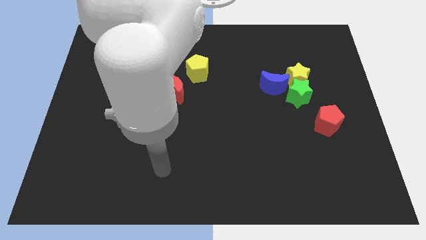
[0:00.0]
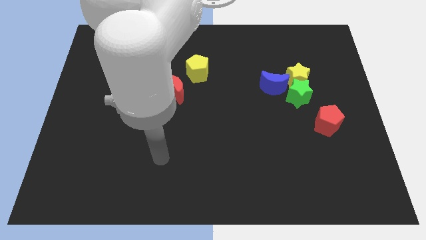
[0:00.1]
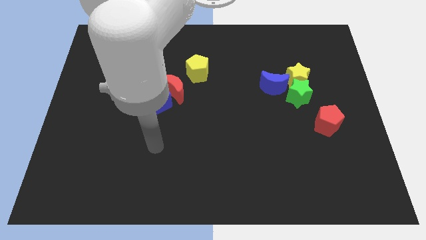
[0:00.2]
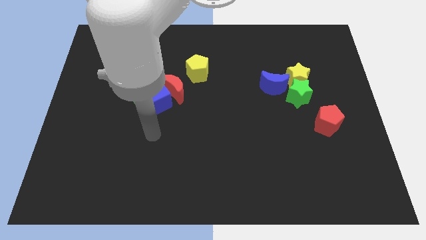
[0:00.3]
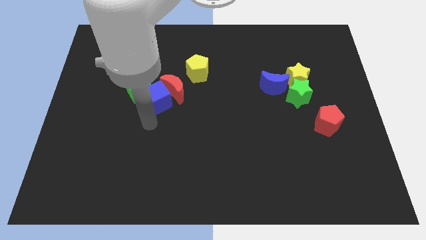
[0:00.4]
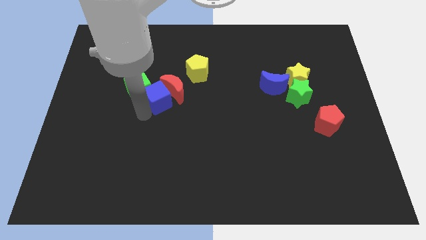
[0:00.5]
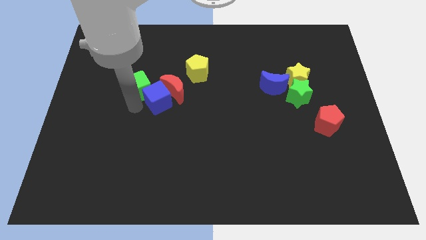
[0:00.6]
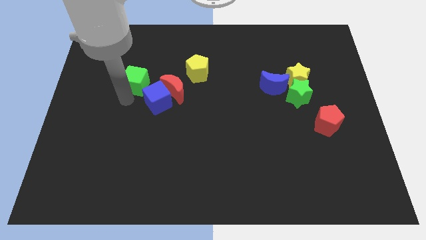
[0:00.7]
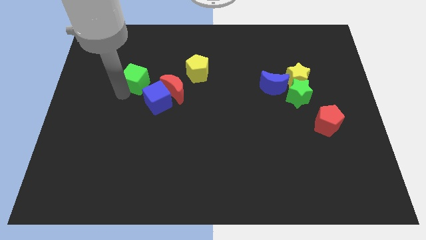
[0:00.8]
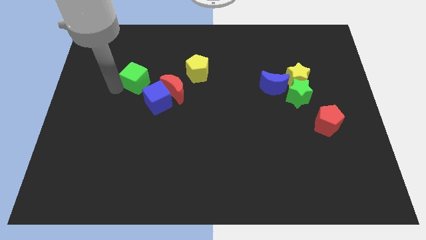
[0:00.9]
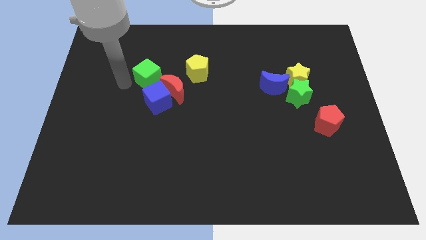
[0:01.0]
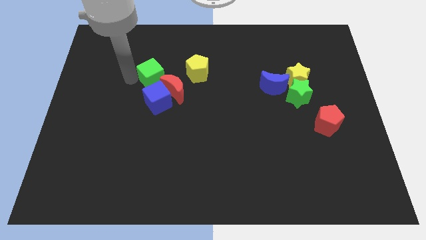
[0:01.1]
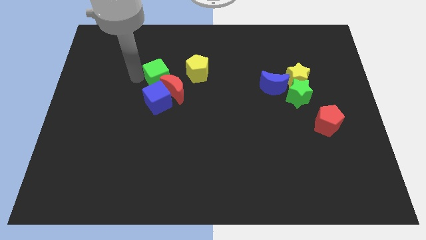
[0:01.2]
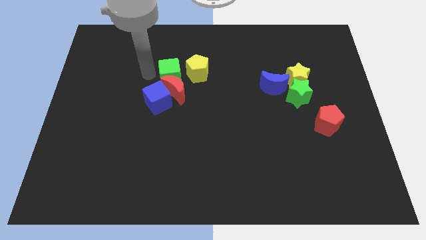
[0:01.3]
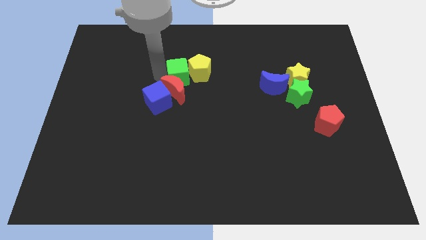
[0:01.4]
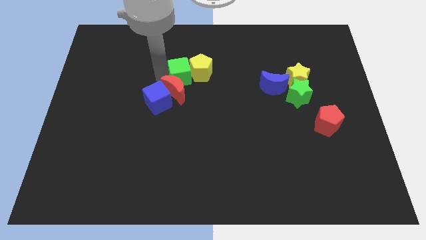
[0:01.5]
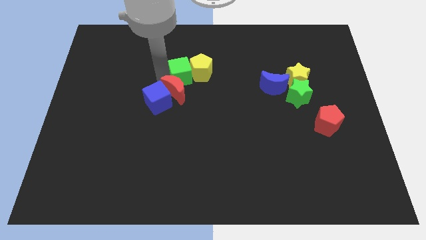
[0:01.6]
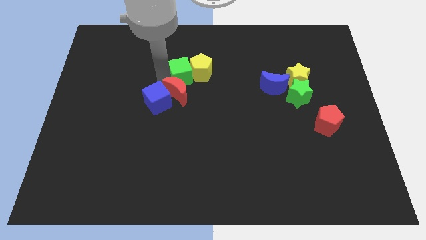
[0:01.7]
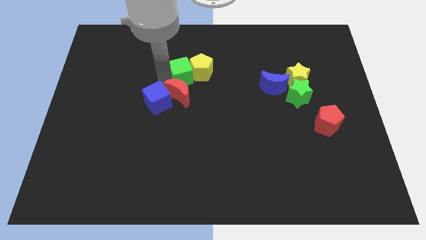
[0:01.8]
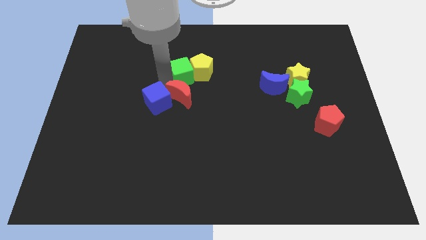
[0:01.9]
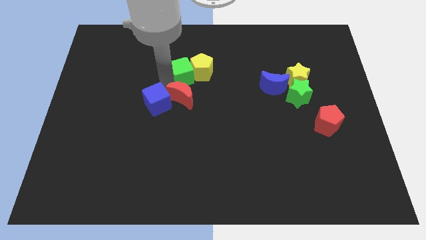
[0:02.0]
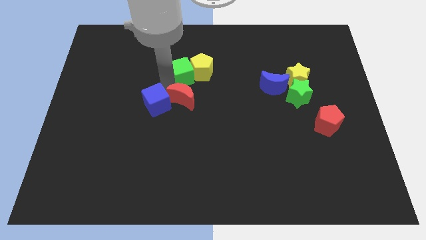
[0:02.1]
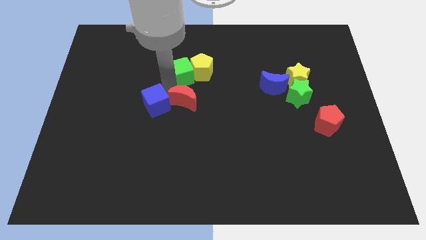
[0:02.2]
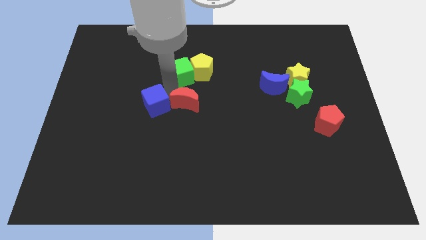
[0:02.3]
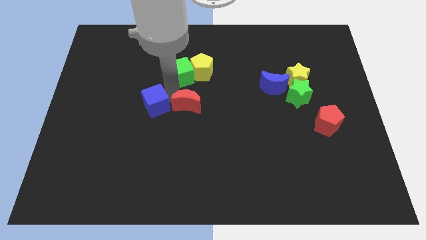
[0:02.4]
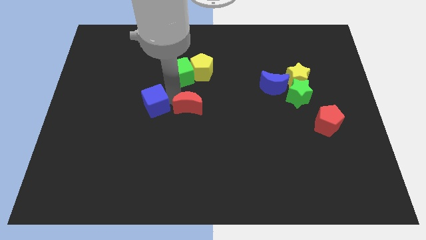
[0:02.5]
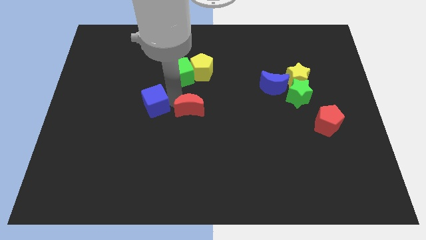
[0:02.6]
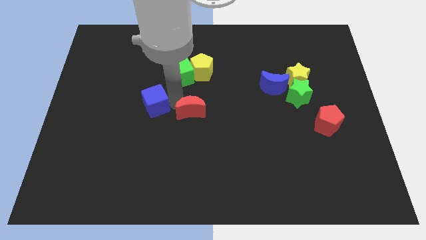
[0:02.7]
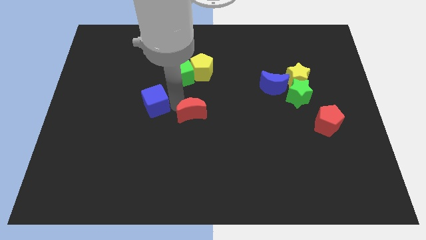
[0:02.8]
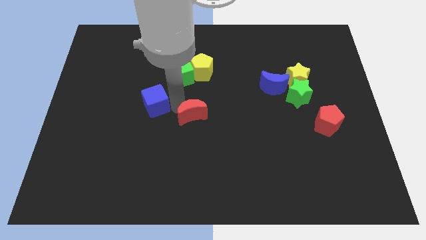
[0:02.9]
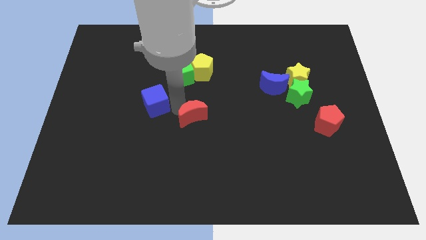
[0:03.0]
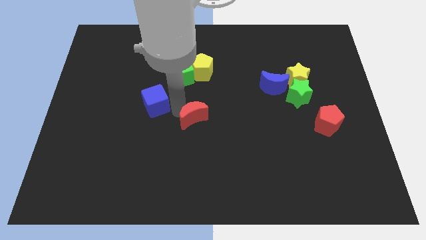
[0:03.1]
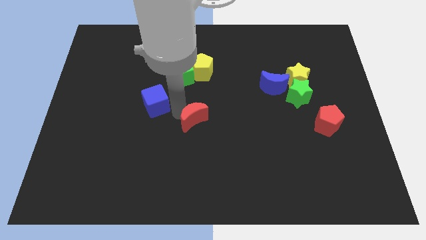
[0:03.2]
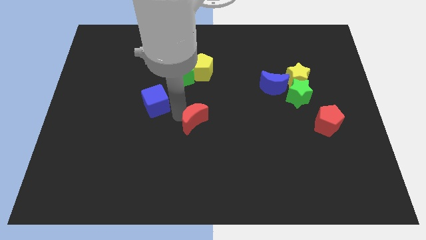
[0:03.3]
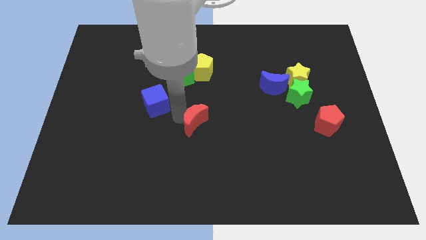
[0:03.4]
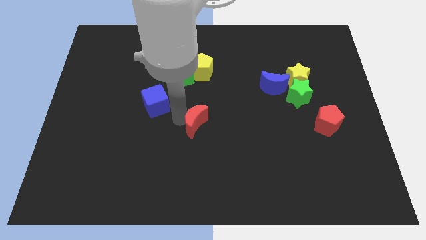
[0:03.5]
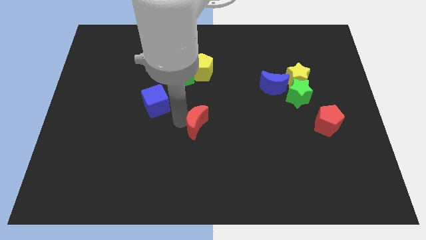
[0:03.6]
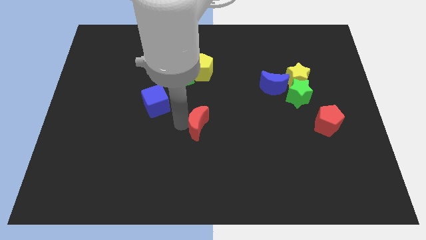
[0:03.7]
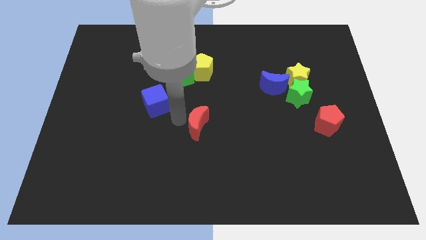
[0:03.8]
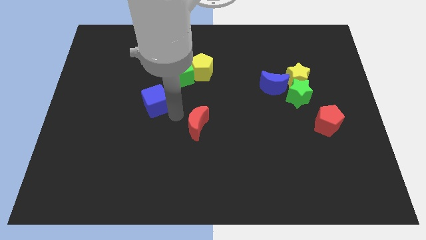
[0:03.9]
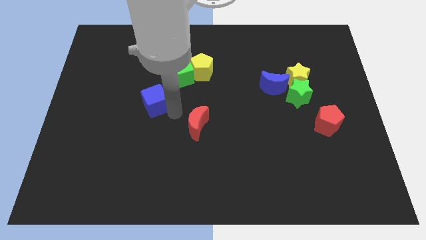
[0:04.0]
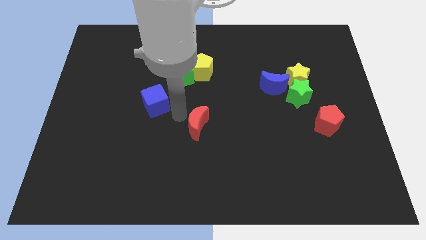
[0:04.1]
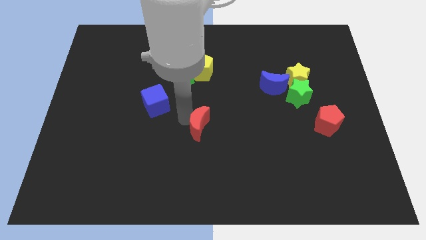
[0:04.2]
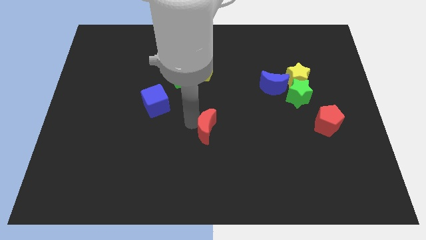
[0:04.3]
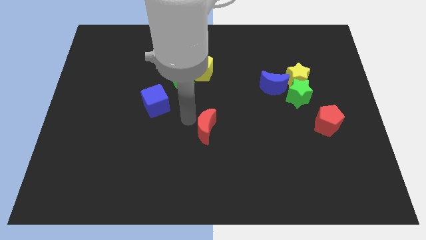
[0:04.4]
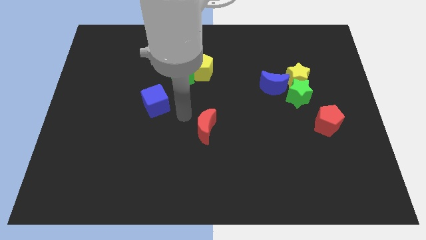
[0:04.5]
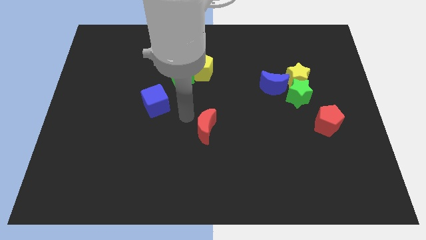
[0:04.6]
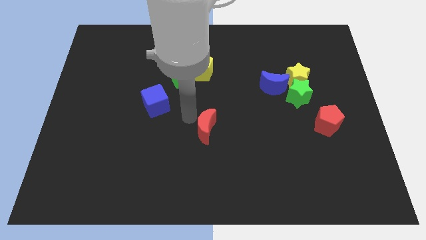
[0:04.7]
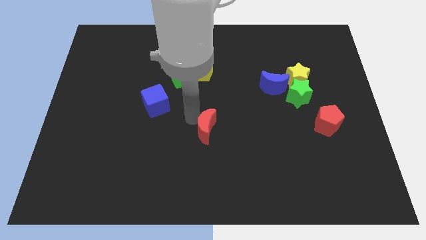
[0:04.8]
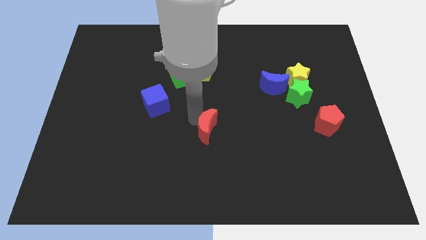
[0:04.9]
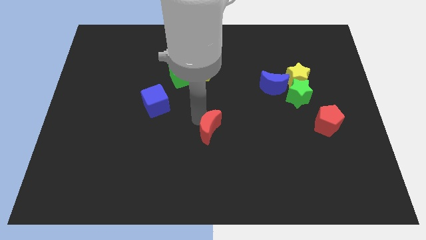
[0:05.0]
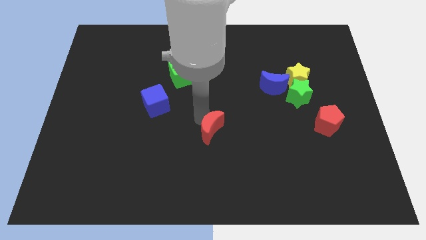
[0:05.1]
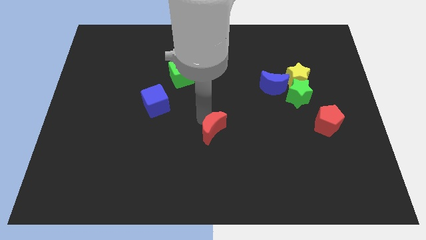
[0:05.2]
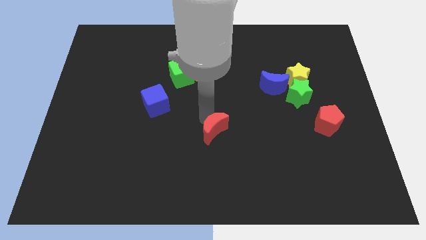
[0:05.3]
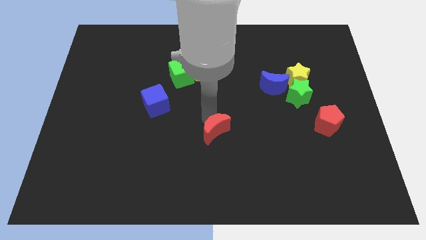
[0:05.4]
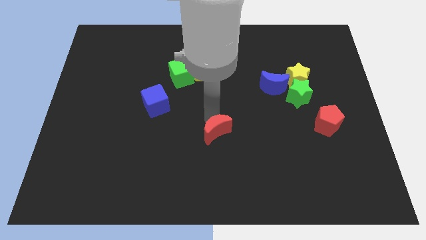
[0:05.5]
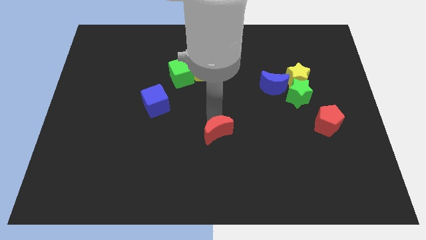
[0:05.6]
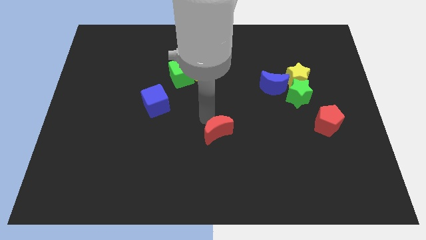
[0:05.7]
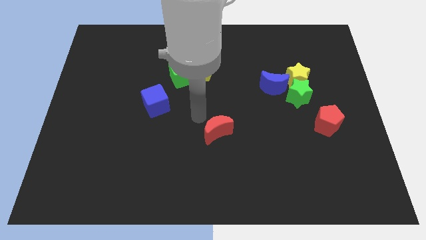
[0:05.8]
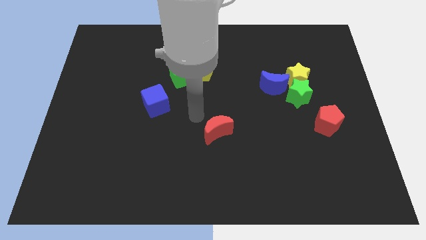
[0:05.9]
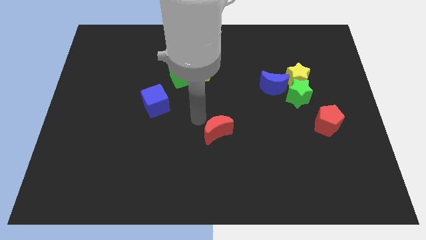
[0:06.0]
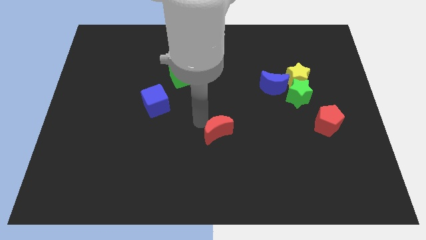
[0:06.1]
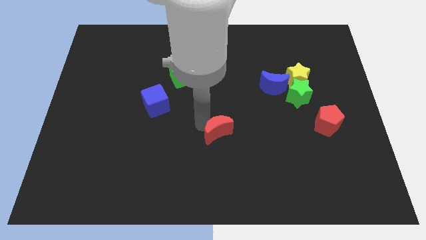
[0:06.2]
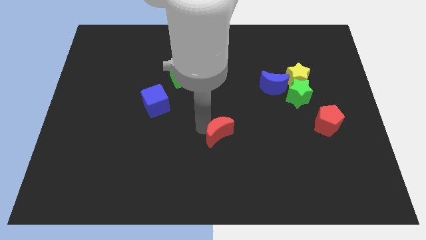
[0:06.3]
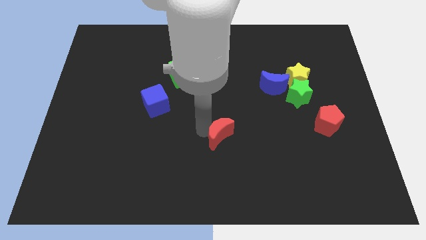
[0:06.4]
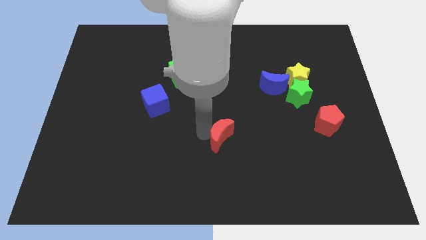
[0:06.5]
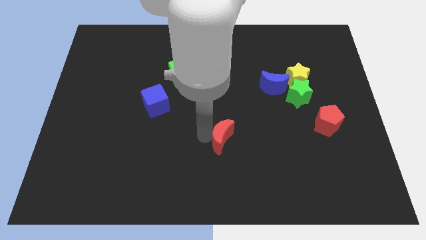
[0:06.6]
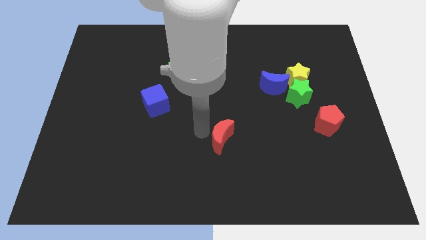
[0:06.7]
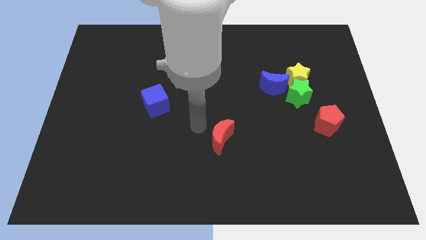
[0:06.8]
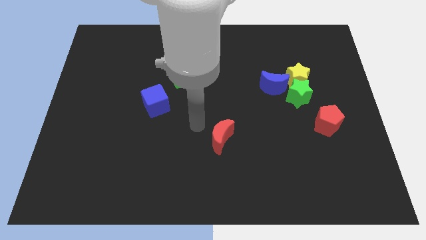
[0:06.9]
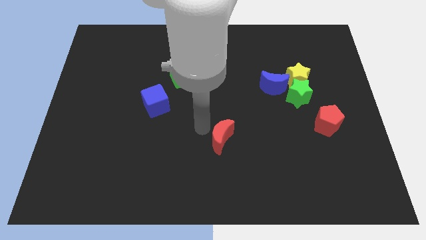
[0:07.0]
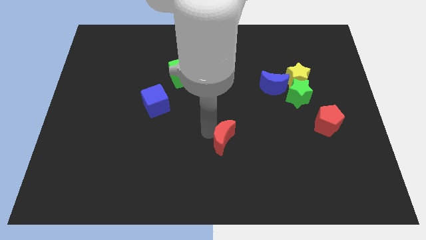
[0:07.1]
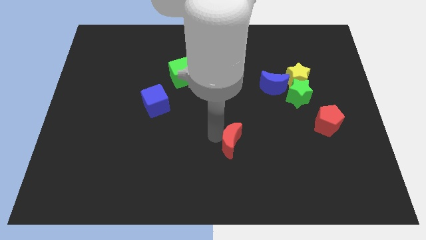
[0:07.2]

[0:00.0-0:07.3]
push the red moon diagonally down and to the right

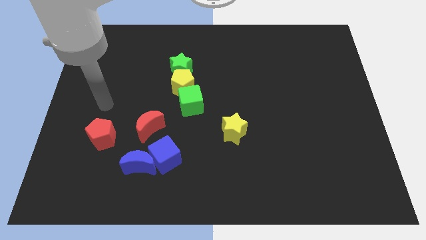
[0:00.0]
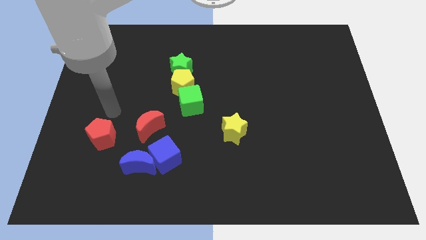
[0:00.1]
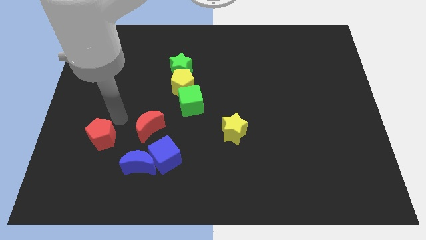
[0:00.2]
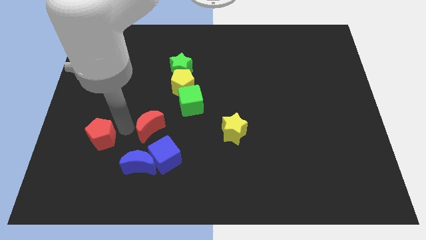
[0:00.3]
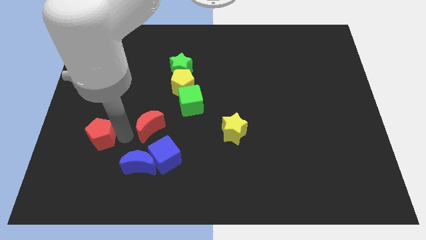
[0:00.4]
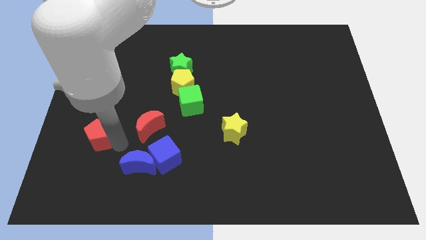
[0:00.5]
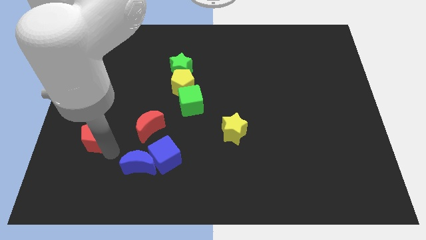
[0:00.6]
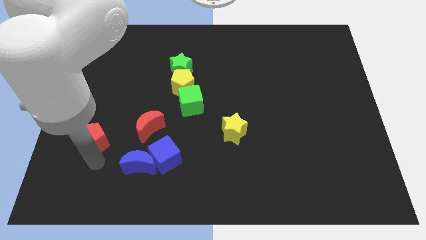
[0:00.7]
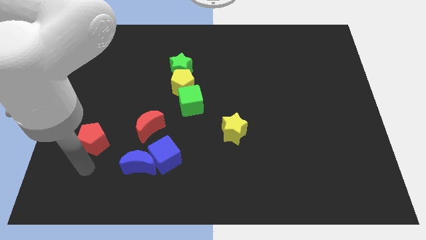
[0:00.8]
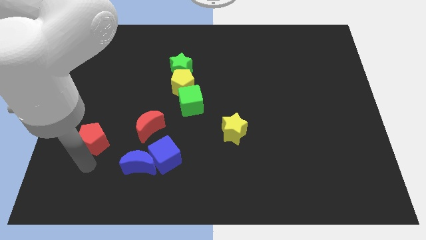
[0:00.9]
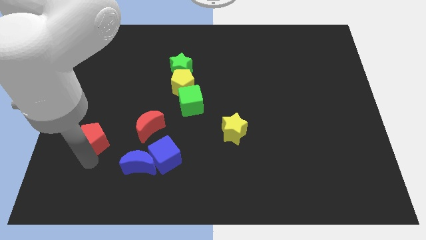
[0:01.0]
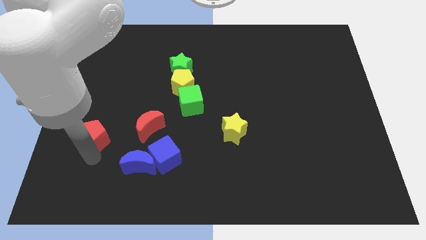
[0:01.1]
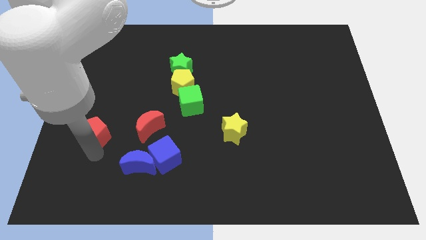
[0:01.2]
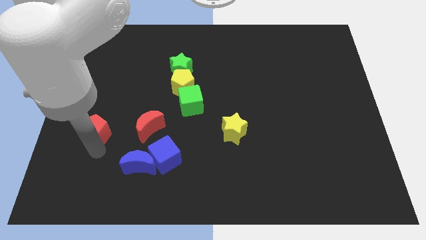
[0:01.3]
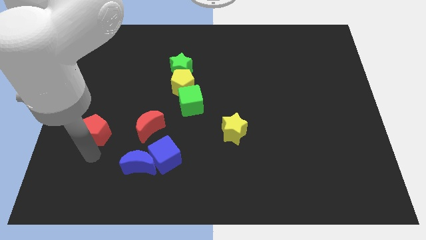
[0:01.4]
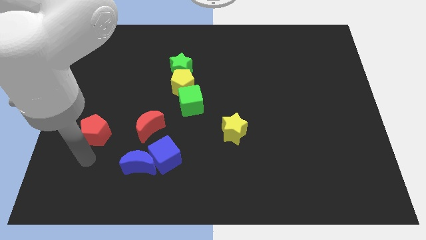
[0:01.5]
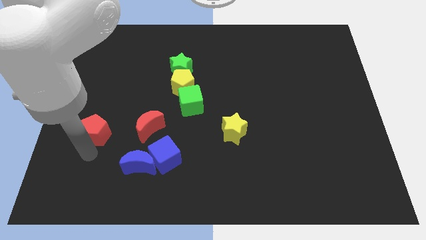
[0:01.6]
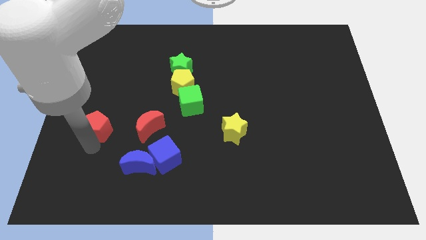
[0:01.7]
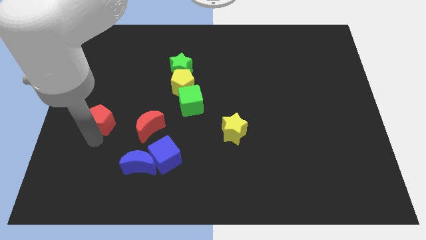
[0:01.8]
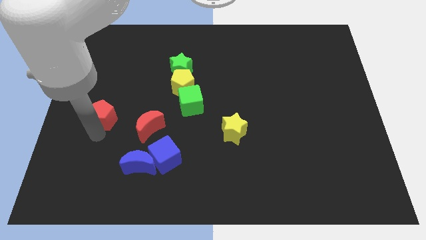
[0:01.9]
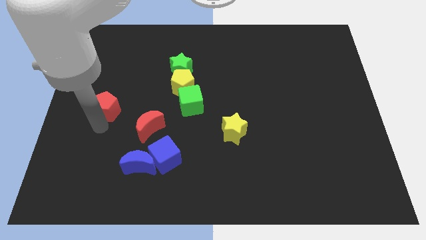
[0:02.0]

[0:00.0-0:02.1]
slide the red pentagon up somewhat
